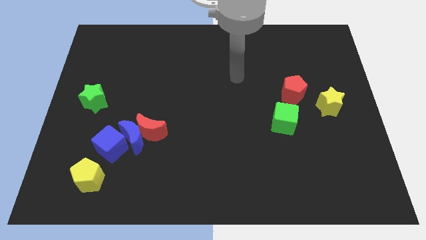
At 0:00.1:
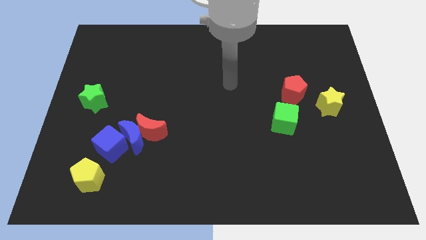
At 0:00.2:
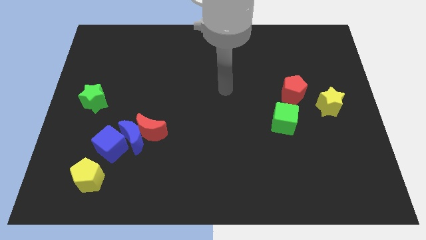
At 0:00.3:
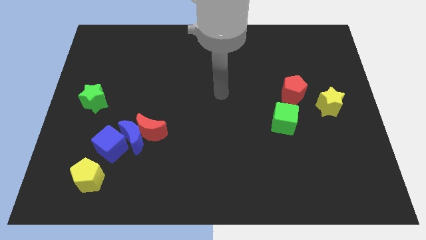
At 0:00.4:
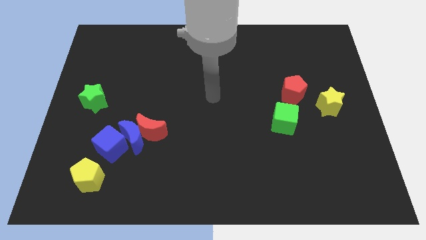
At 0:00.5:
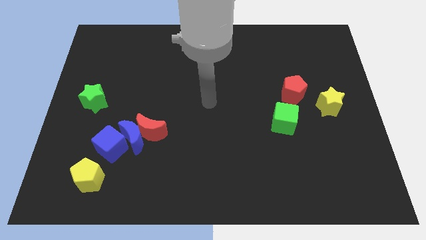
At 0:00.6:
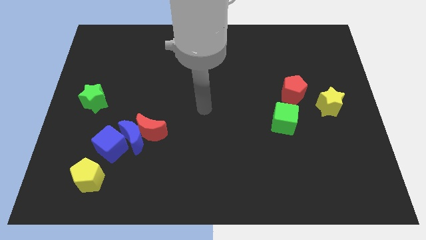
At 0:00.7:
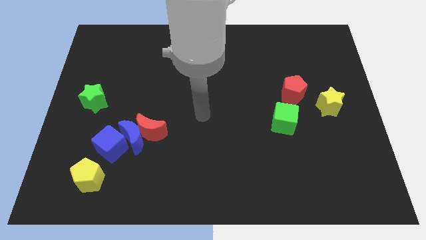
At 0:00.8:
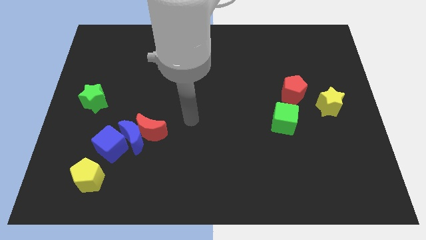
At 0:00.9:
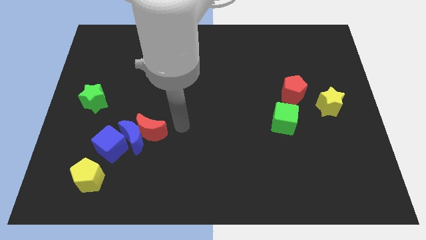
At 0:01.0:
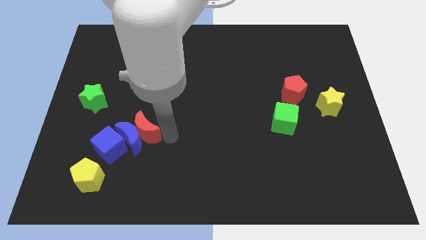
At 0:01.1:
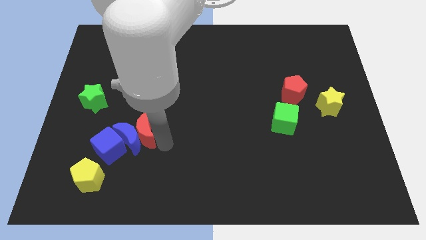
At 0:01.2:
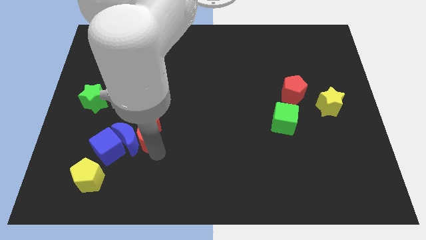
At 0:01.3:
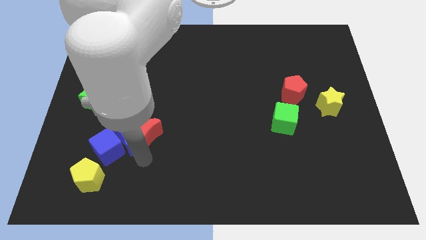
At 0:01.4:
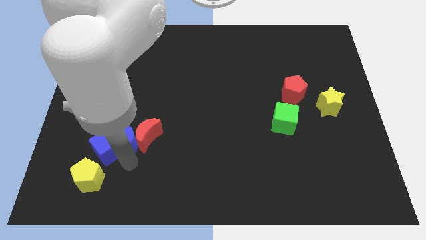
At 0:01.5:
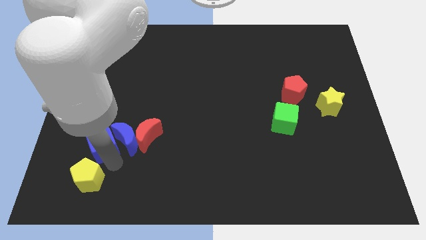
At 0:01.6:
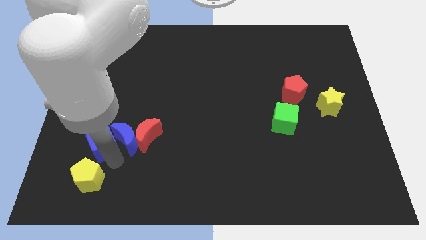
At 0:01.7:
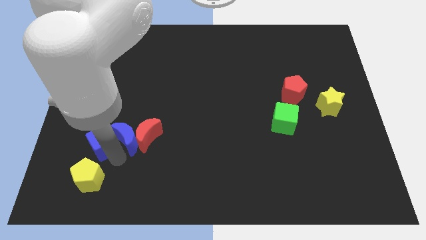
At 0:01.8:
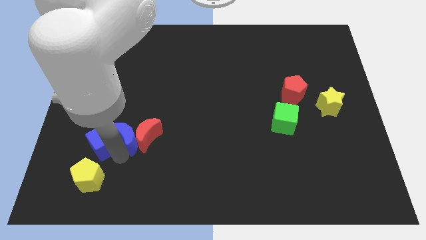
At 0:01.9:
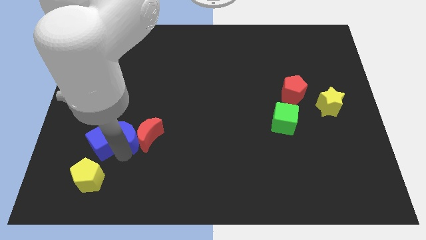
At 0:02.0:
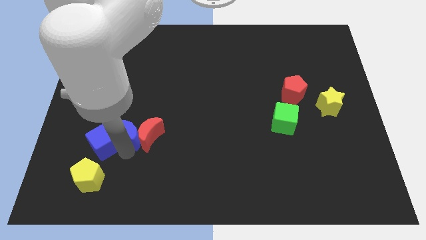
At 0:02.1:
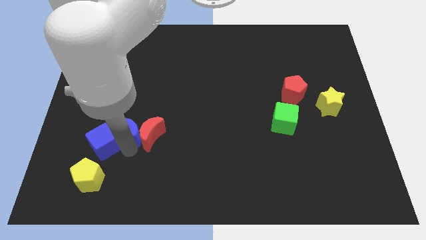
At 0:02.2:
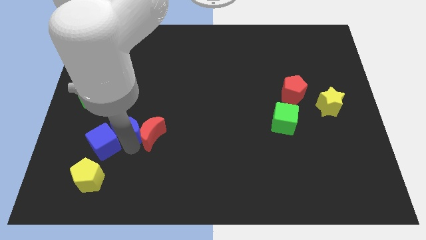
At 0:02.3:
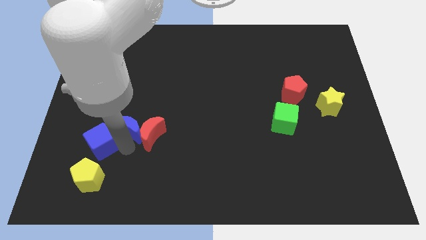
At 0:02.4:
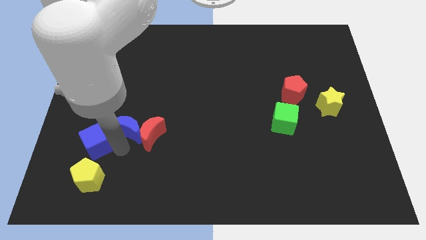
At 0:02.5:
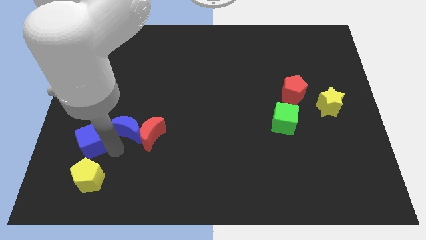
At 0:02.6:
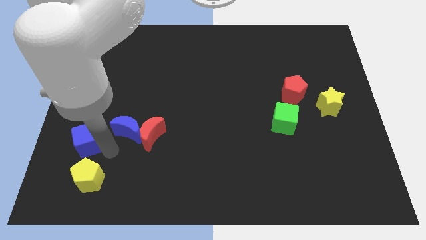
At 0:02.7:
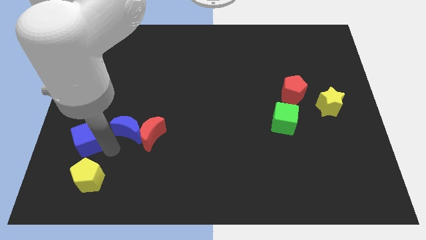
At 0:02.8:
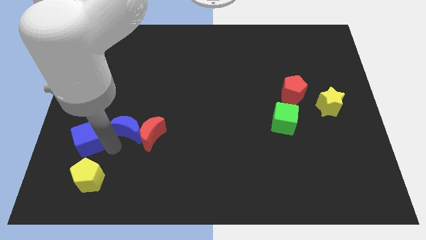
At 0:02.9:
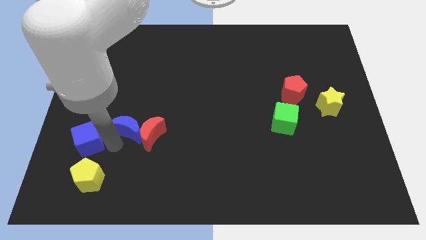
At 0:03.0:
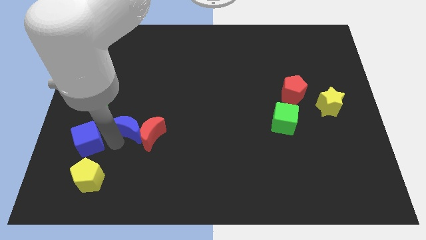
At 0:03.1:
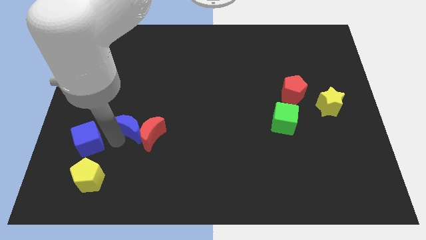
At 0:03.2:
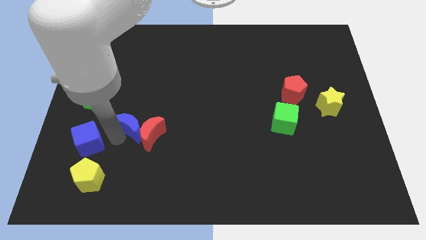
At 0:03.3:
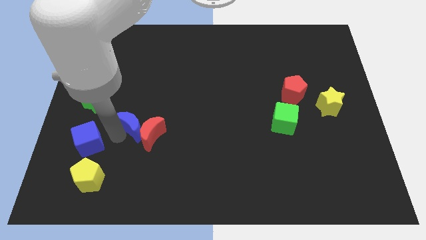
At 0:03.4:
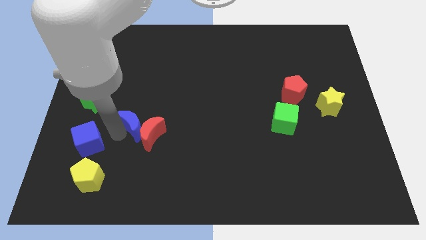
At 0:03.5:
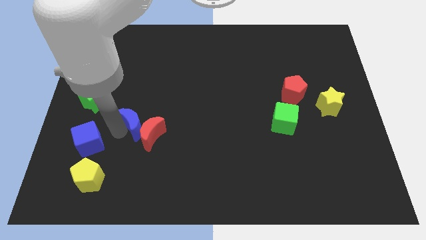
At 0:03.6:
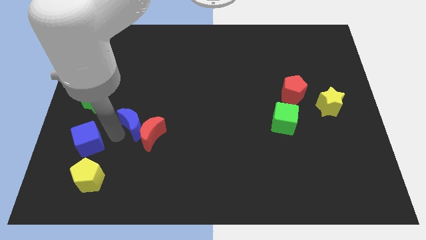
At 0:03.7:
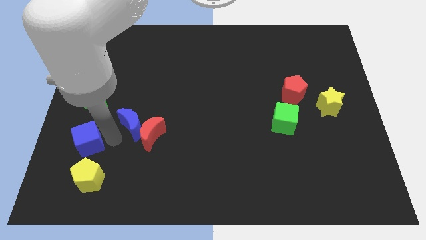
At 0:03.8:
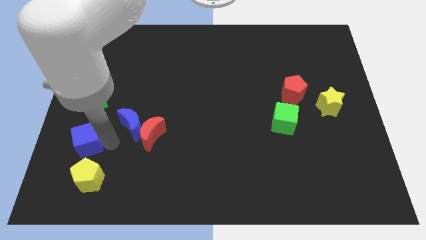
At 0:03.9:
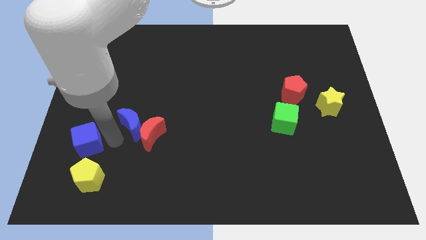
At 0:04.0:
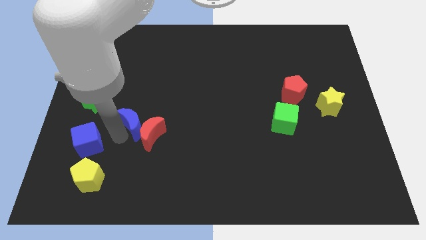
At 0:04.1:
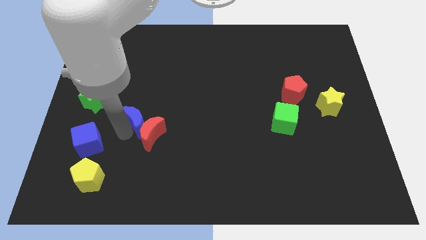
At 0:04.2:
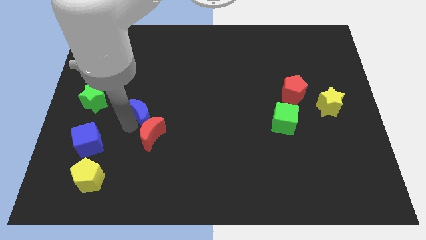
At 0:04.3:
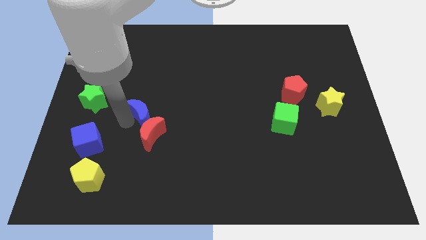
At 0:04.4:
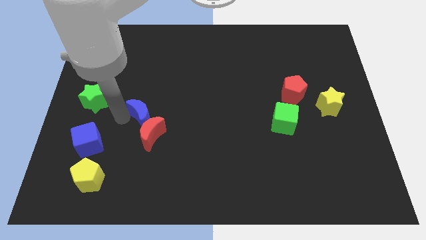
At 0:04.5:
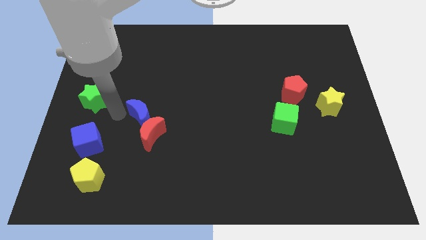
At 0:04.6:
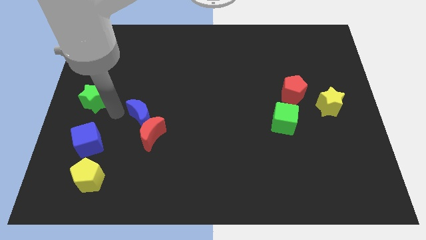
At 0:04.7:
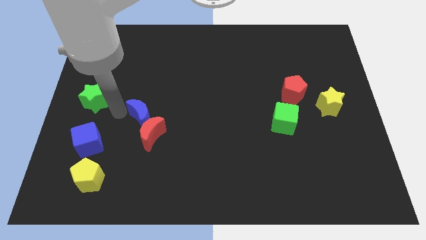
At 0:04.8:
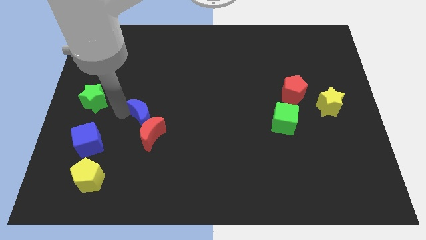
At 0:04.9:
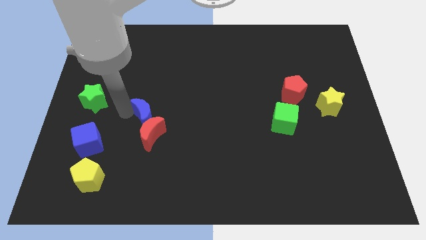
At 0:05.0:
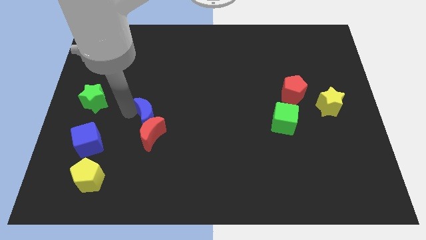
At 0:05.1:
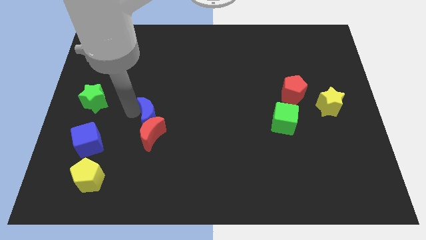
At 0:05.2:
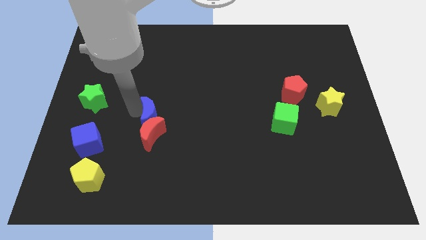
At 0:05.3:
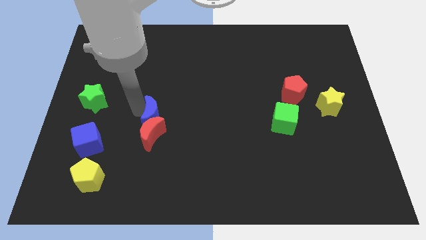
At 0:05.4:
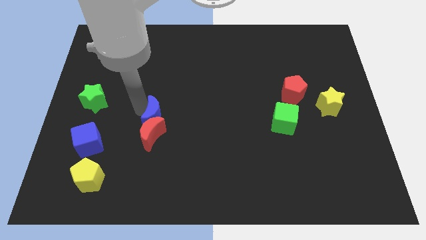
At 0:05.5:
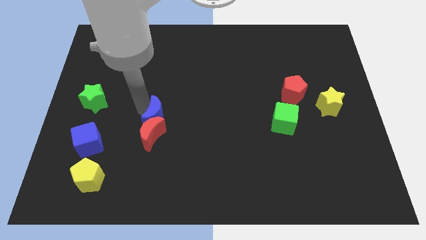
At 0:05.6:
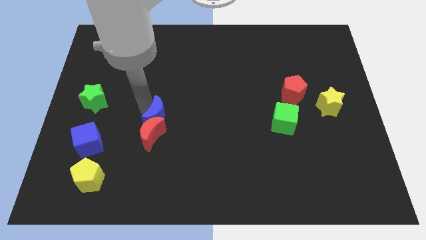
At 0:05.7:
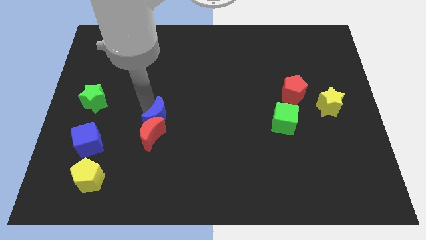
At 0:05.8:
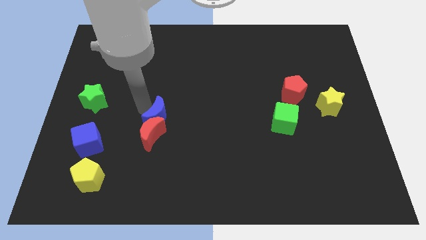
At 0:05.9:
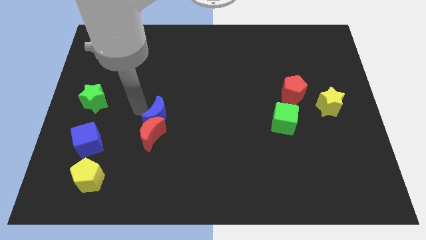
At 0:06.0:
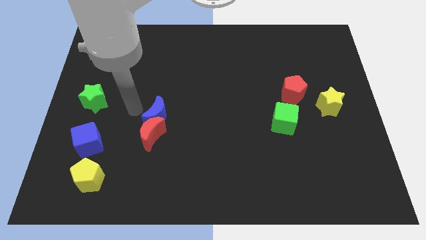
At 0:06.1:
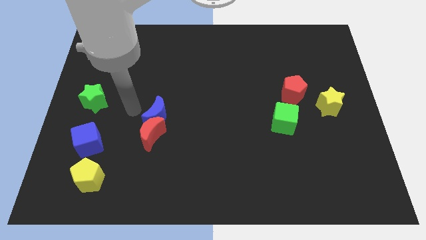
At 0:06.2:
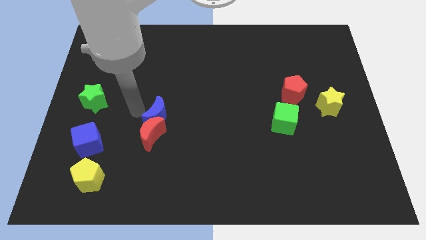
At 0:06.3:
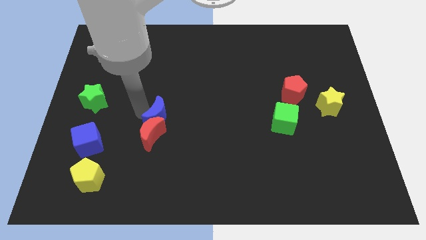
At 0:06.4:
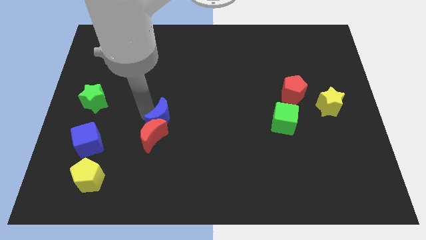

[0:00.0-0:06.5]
move the blue moon away from the red moon and blue cube

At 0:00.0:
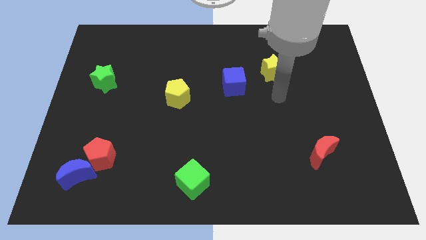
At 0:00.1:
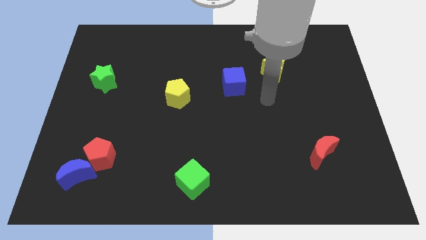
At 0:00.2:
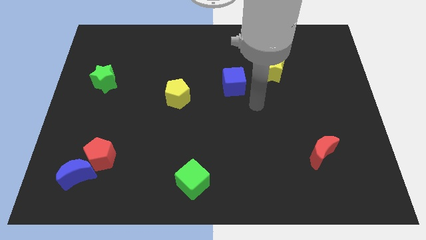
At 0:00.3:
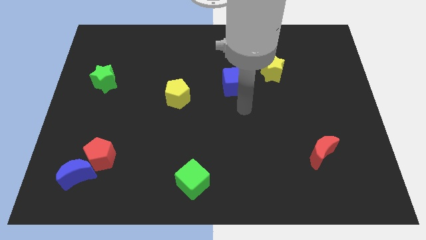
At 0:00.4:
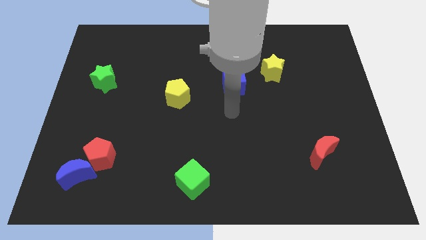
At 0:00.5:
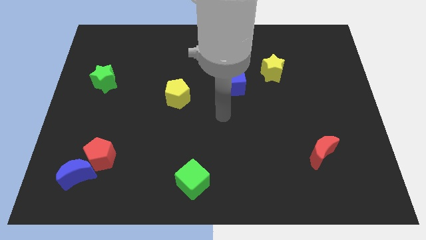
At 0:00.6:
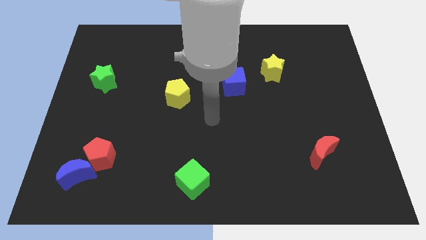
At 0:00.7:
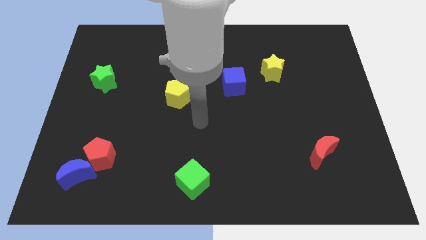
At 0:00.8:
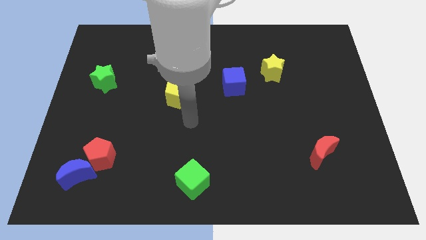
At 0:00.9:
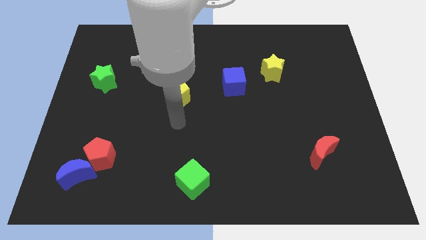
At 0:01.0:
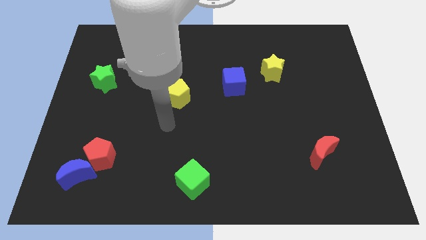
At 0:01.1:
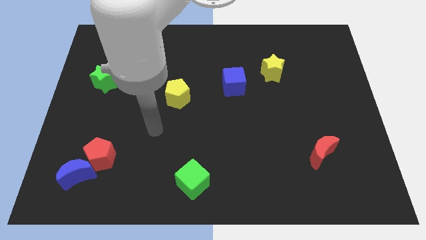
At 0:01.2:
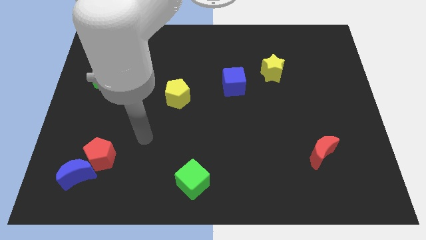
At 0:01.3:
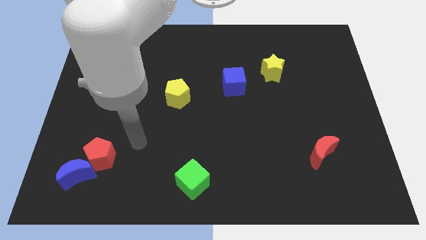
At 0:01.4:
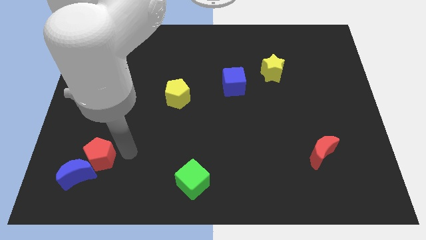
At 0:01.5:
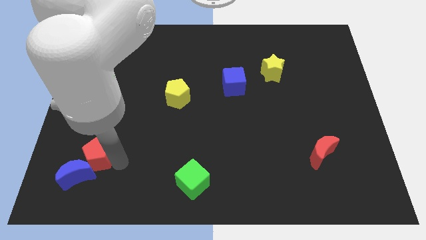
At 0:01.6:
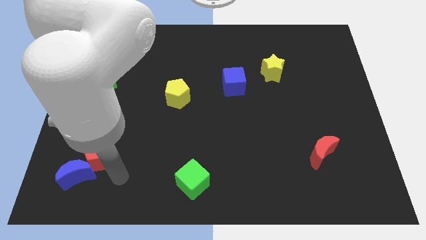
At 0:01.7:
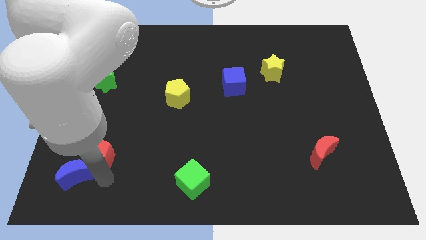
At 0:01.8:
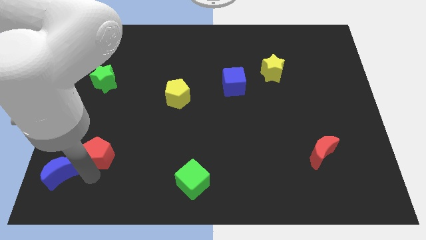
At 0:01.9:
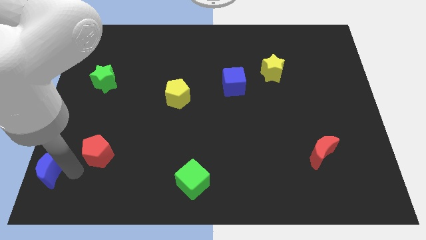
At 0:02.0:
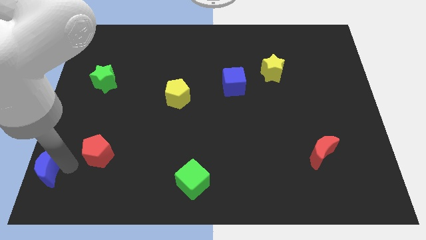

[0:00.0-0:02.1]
move the red pentagon away from the blue moon

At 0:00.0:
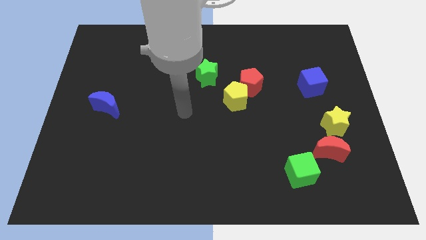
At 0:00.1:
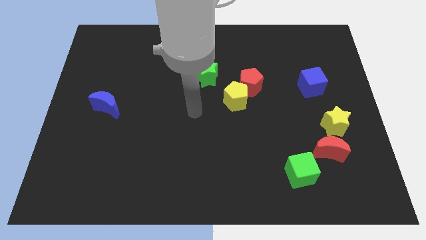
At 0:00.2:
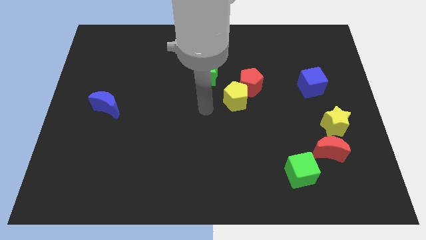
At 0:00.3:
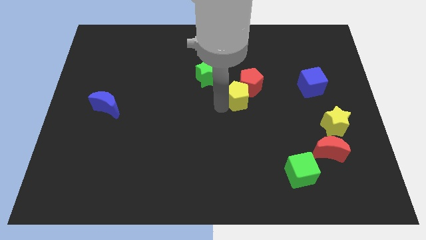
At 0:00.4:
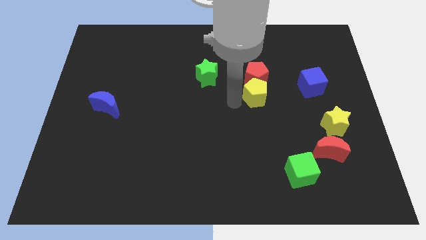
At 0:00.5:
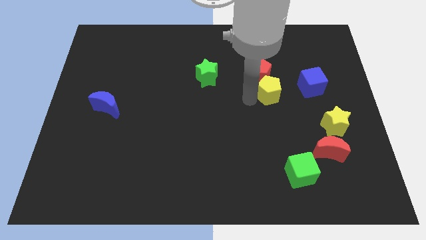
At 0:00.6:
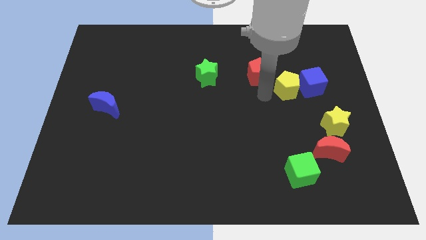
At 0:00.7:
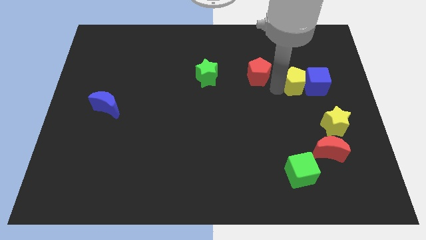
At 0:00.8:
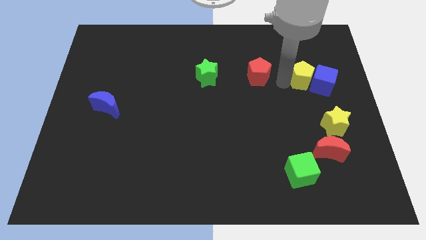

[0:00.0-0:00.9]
pull the red pentagon apart from the yellow pentagon
